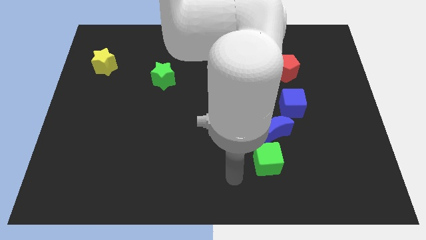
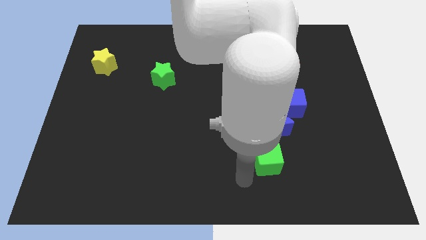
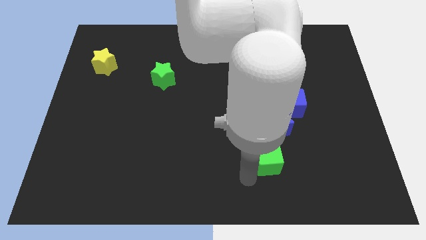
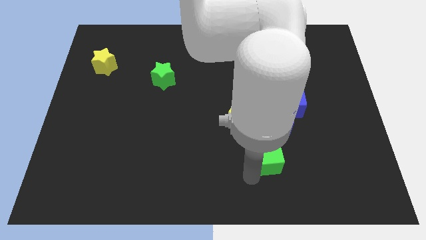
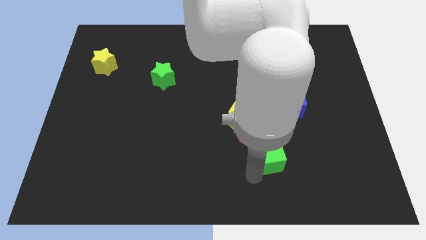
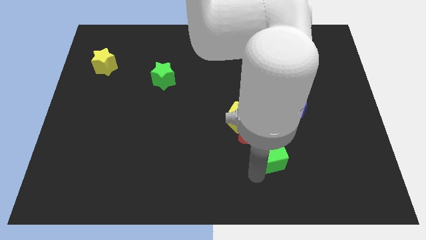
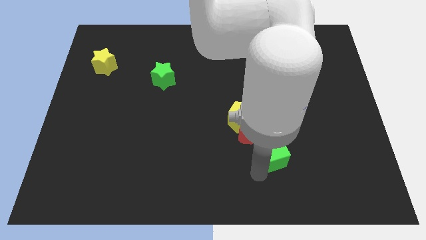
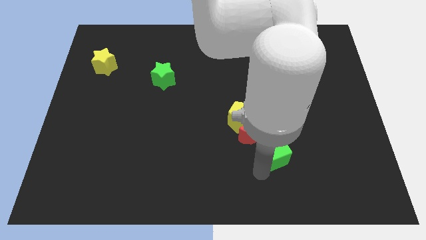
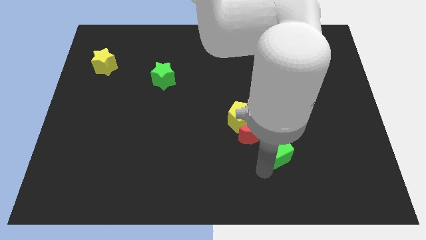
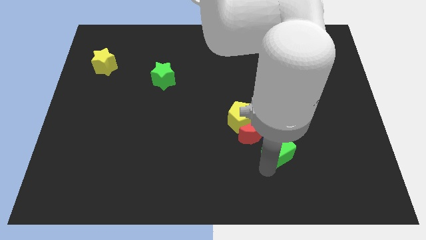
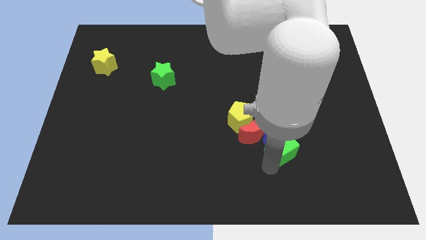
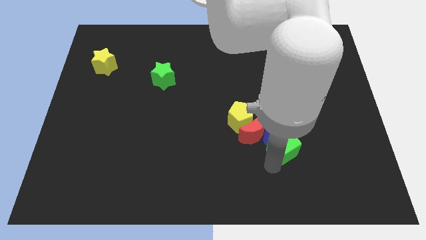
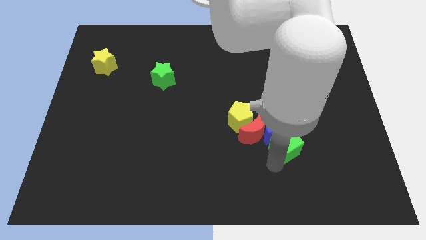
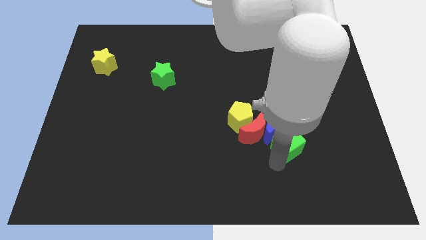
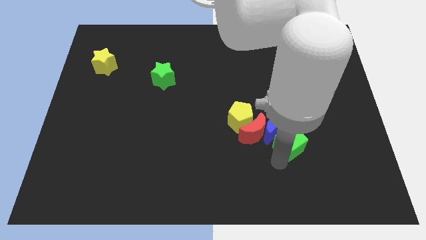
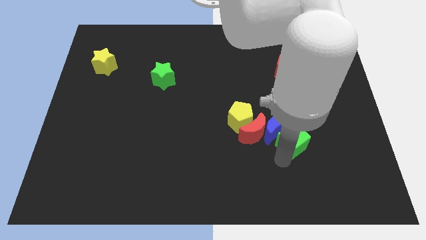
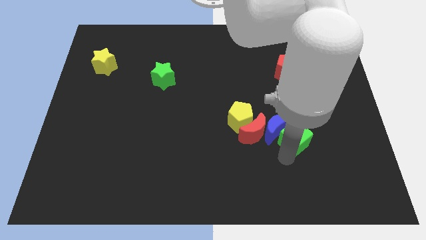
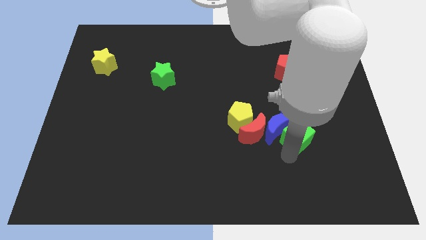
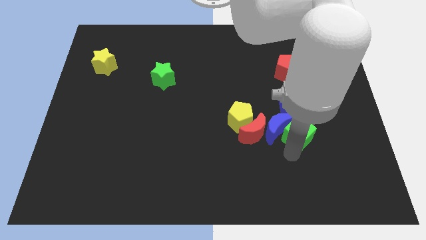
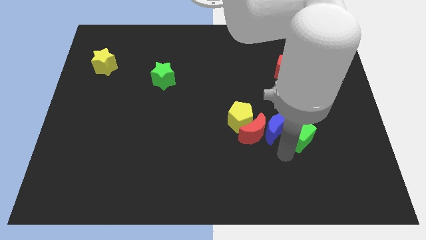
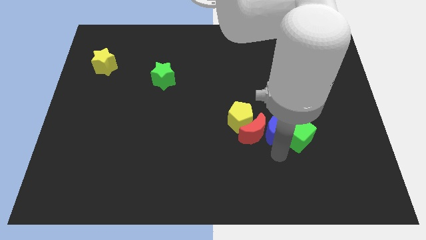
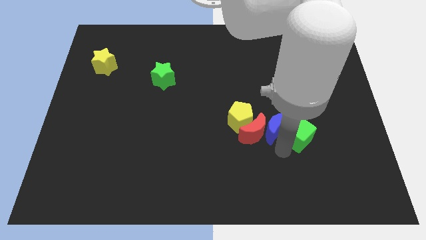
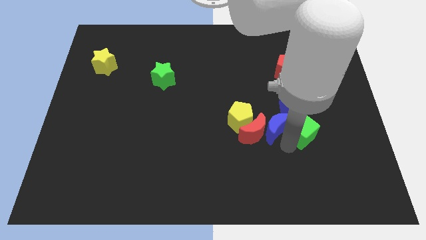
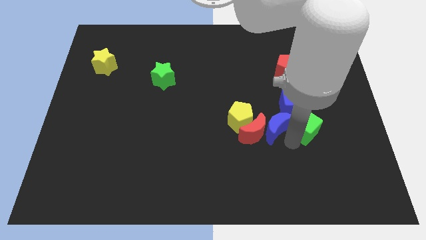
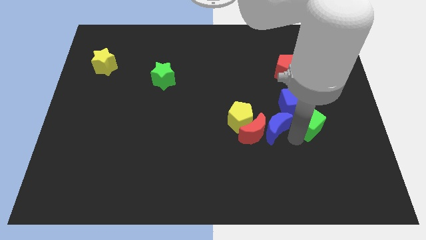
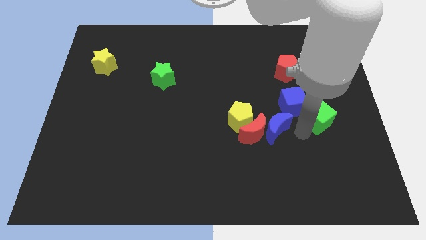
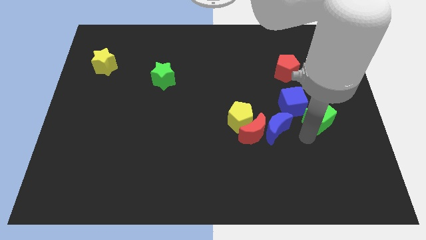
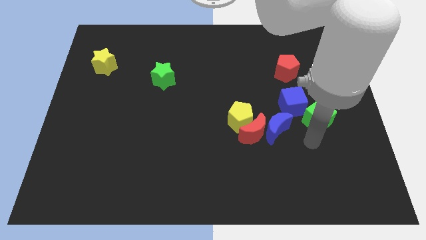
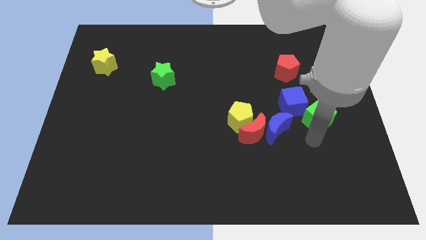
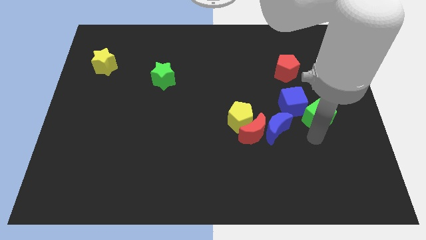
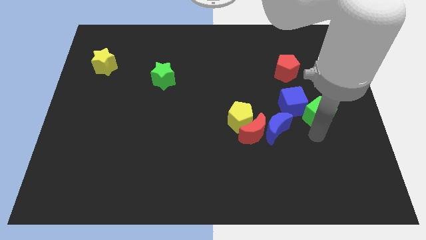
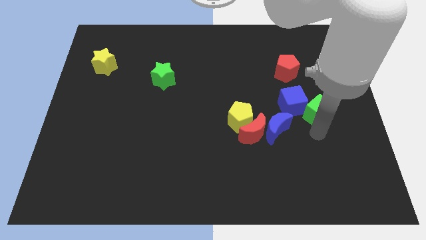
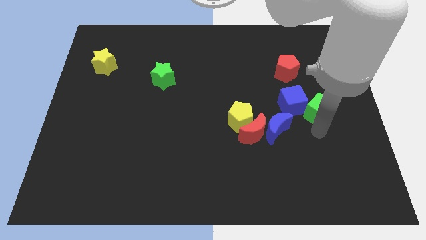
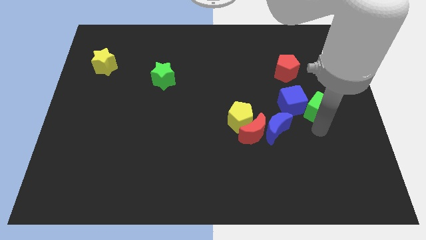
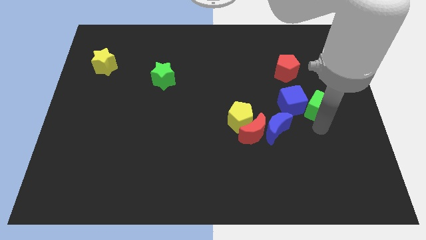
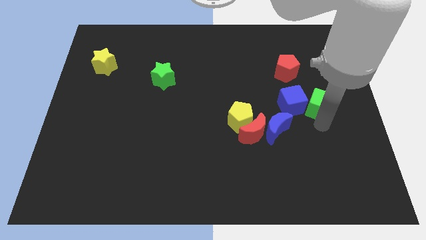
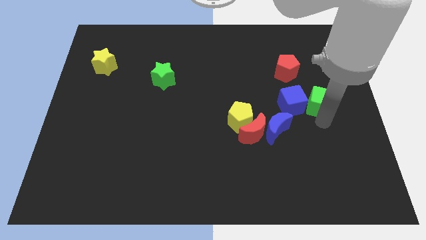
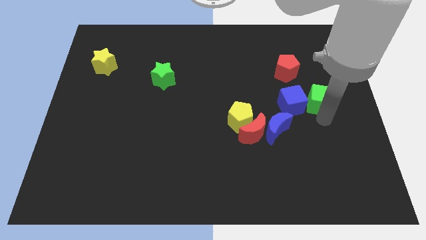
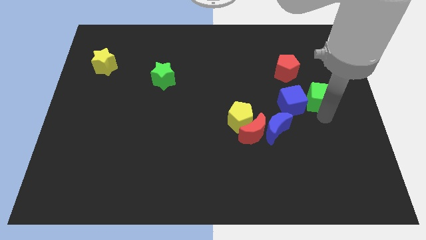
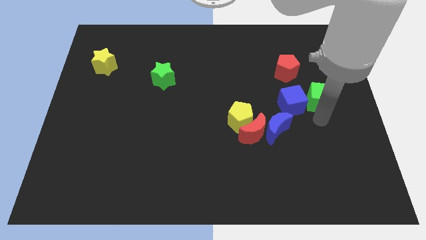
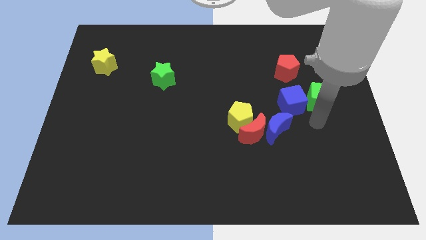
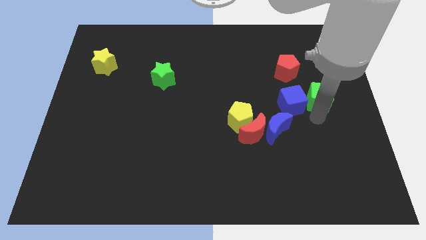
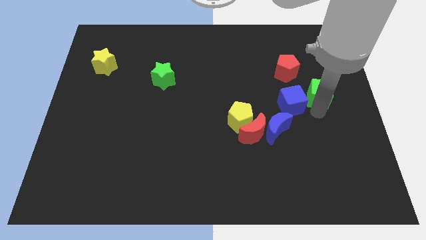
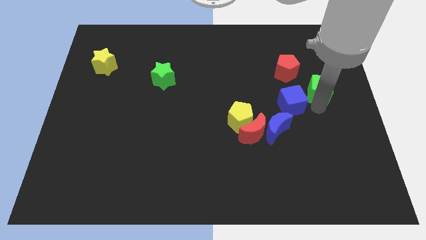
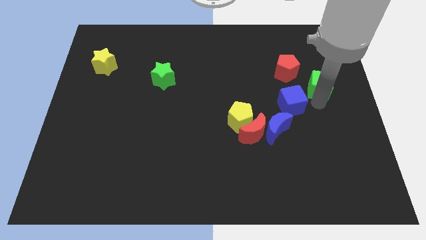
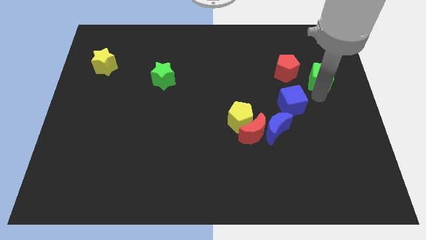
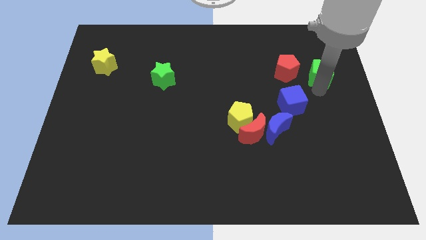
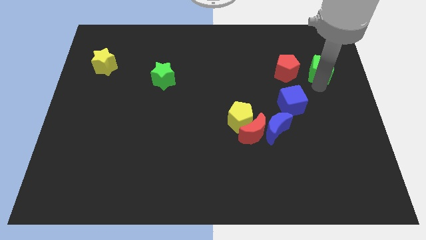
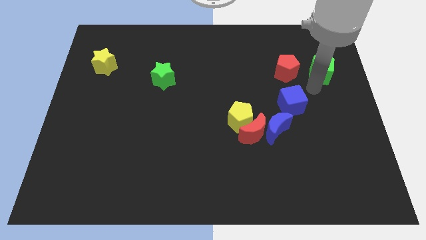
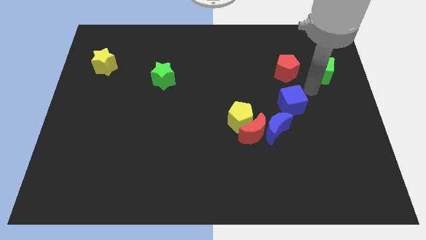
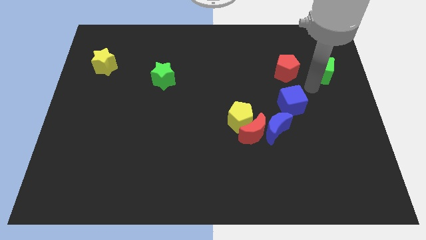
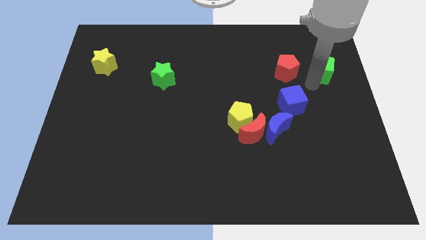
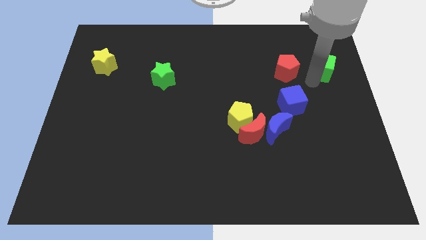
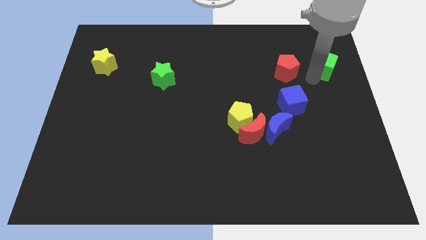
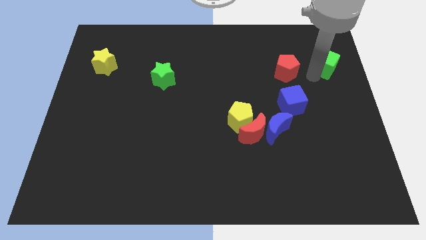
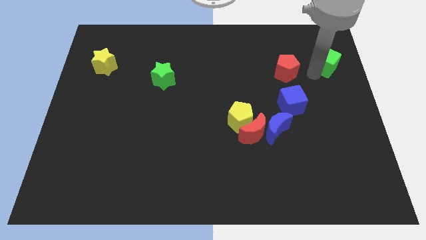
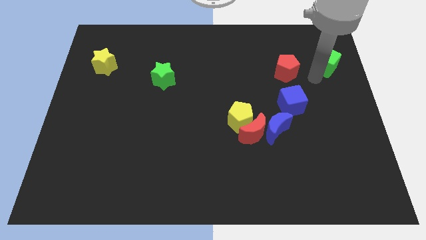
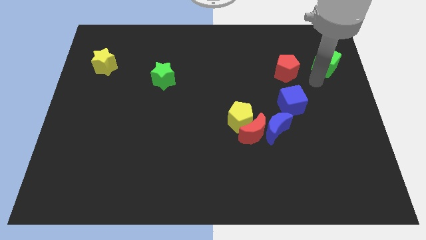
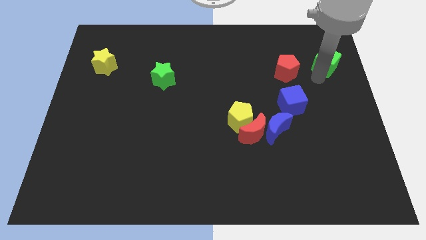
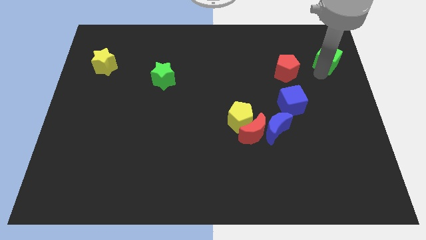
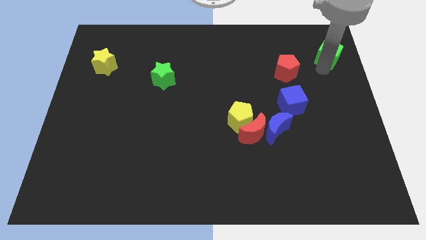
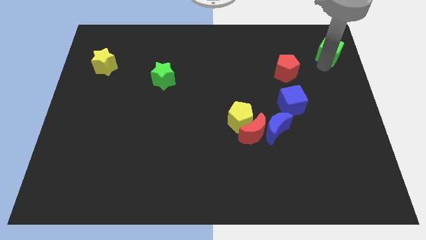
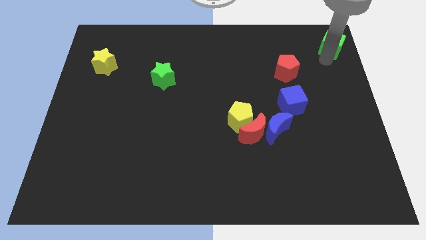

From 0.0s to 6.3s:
move the green cube to the top right

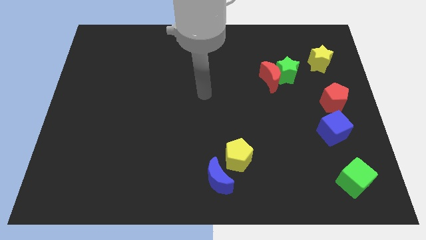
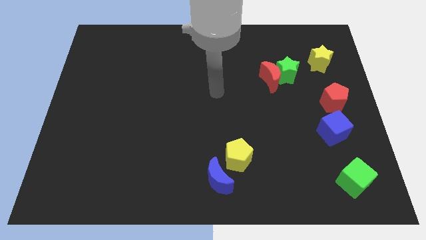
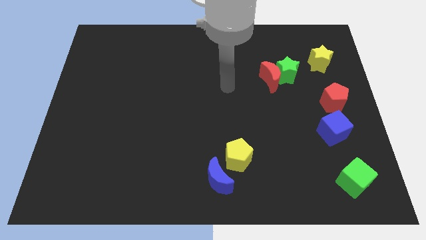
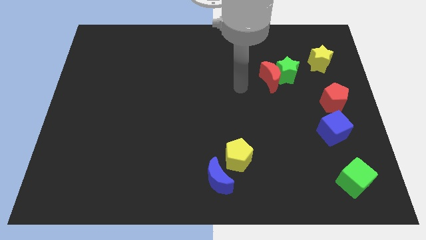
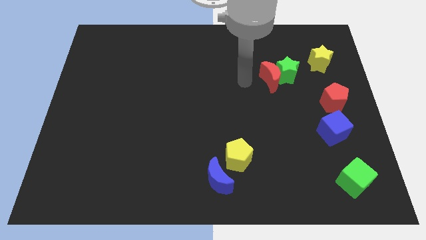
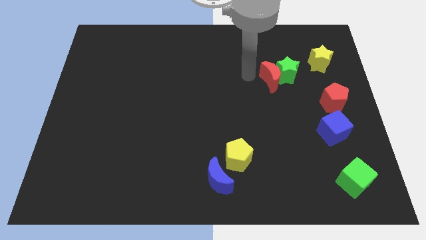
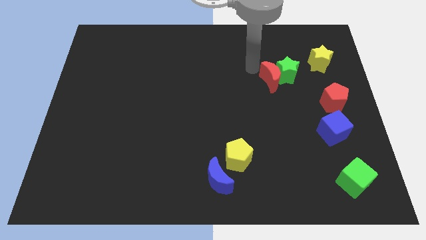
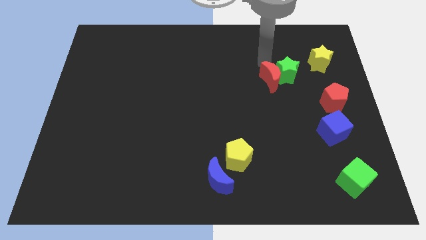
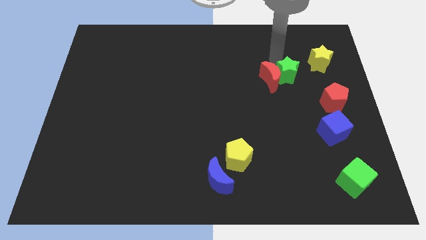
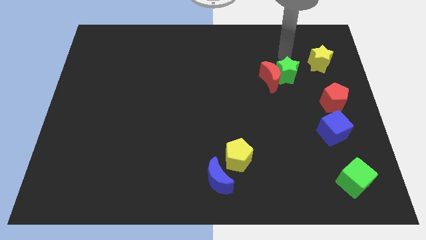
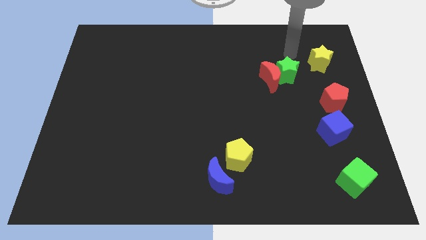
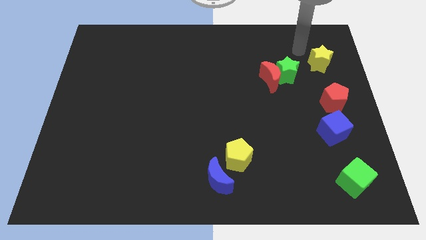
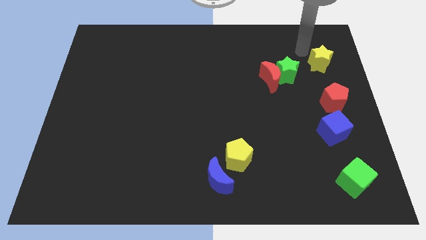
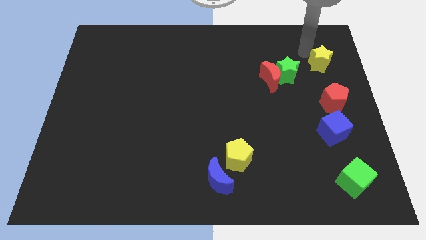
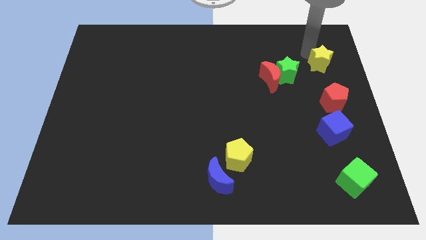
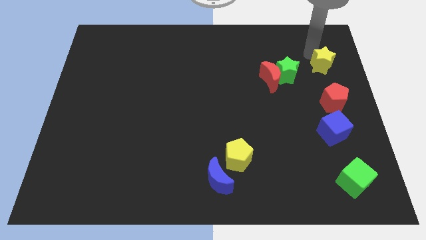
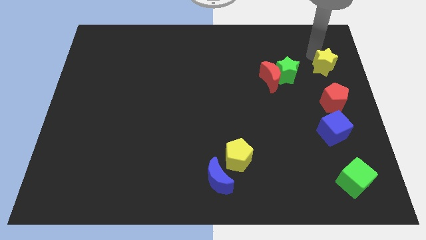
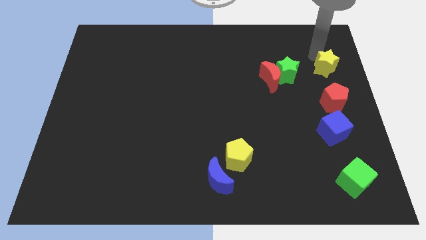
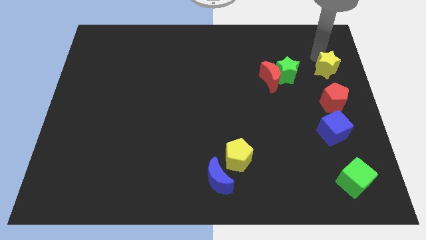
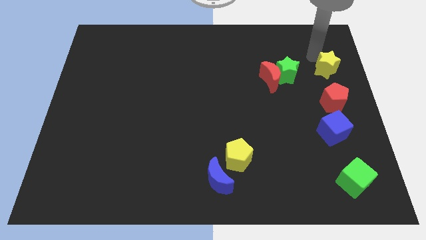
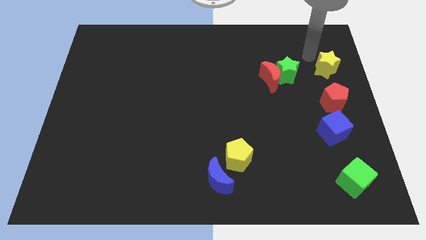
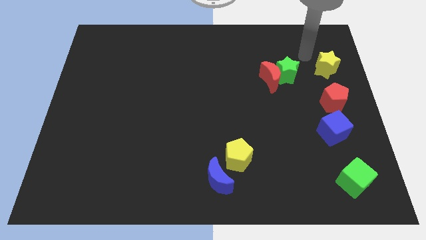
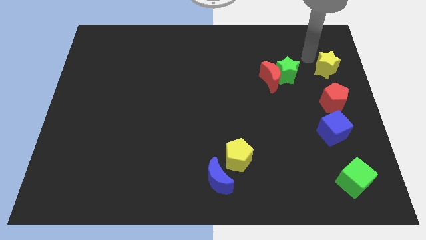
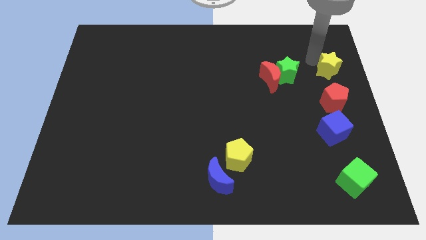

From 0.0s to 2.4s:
move the yellow star to the center right
